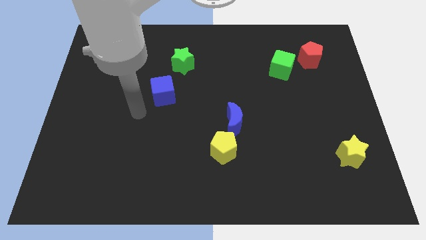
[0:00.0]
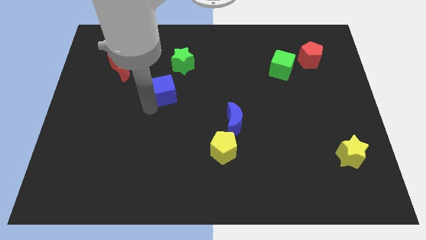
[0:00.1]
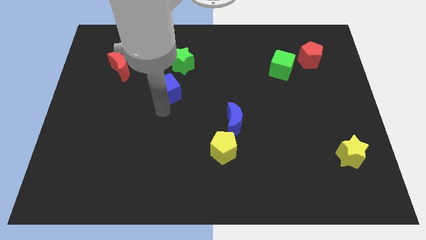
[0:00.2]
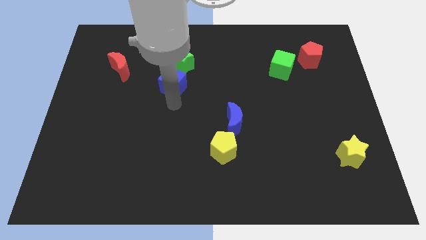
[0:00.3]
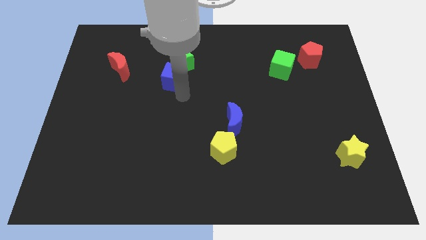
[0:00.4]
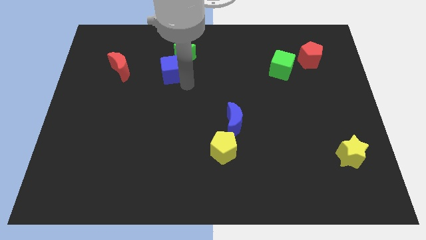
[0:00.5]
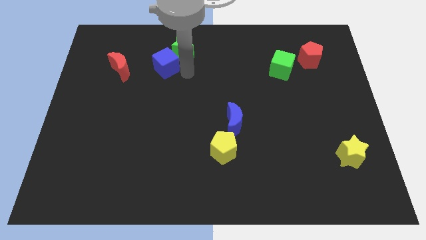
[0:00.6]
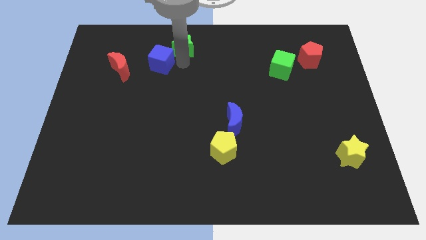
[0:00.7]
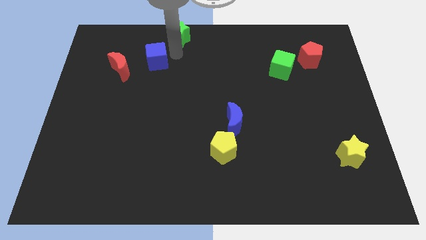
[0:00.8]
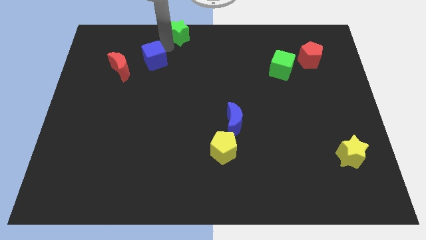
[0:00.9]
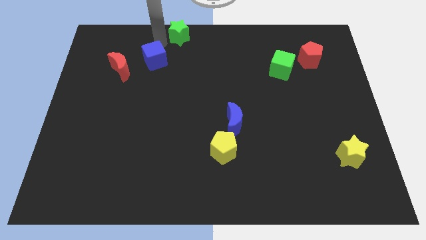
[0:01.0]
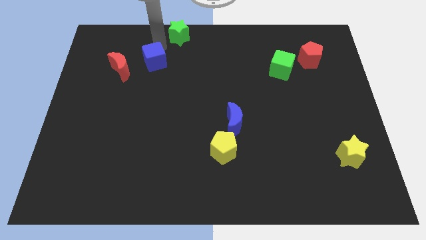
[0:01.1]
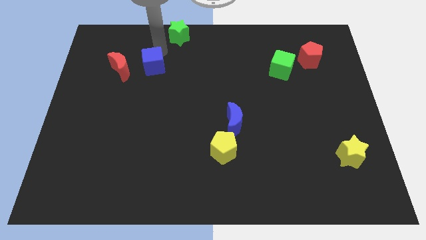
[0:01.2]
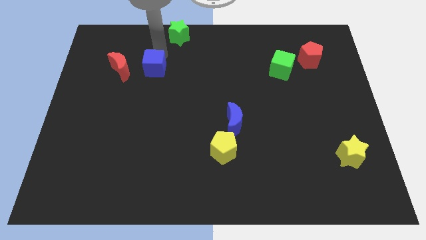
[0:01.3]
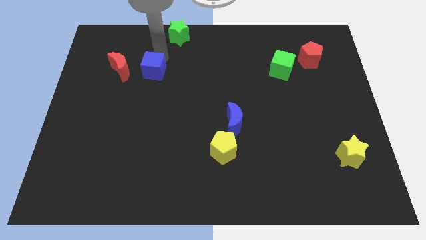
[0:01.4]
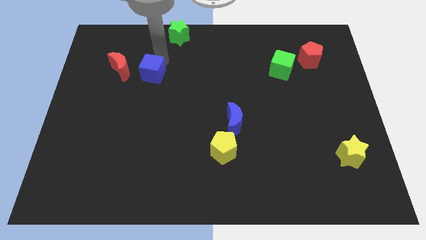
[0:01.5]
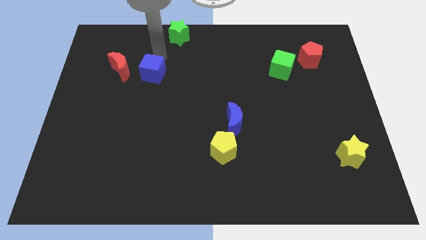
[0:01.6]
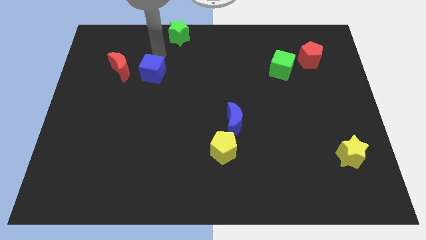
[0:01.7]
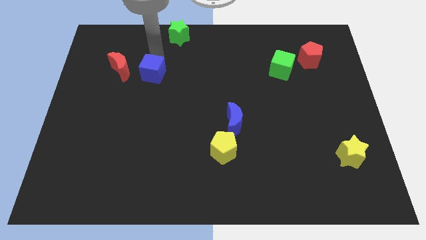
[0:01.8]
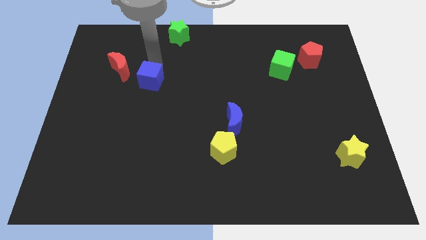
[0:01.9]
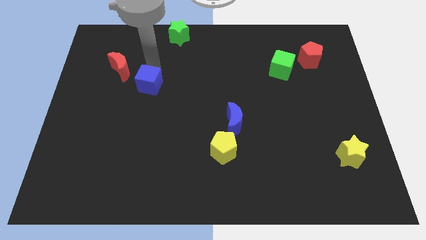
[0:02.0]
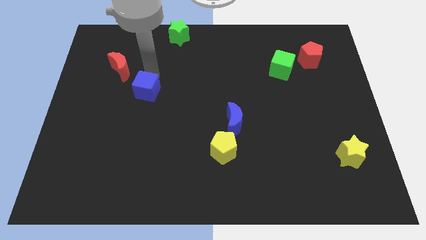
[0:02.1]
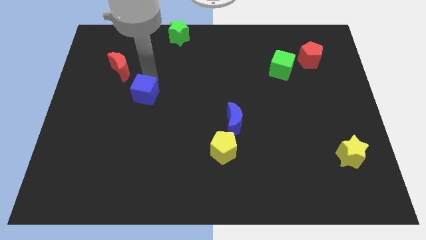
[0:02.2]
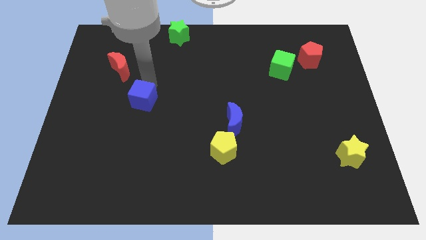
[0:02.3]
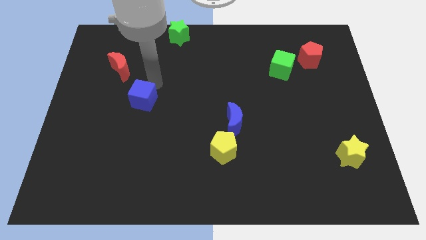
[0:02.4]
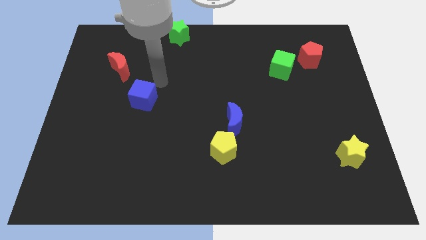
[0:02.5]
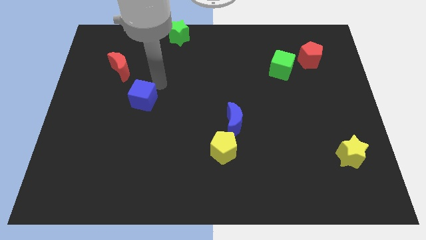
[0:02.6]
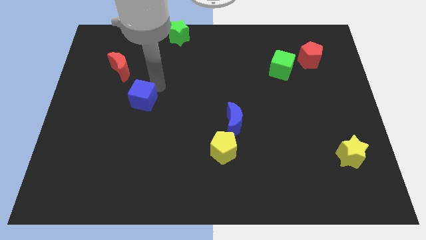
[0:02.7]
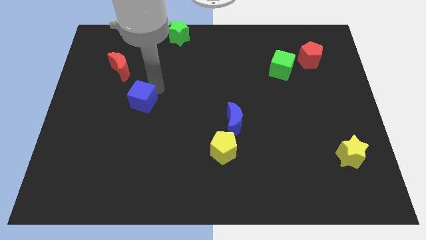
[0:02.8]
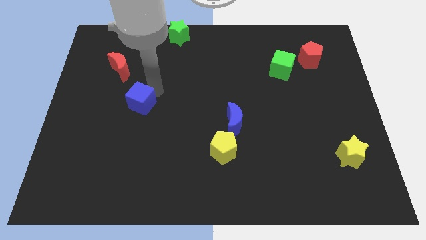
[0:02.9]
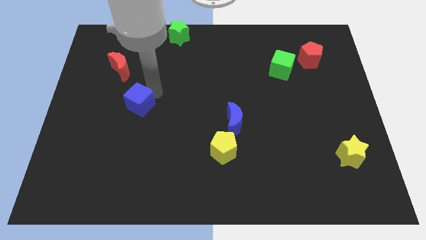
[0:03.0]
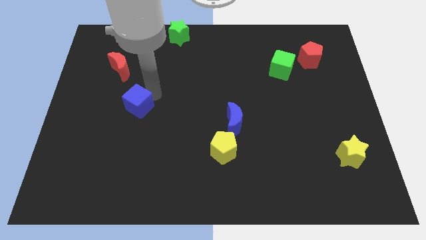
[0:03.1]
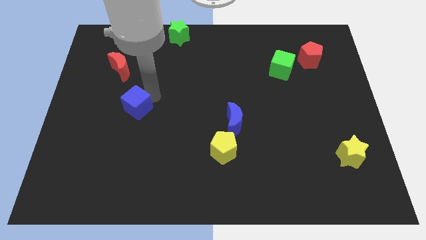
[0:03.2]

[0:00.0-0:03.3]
slightly move the blue cube downwards and left diagonally

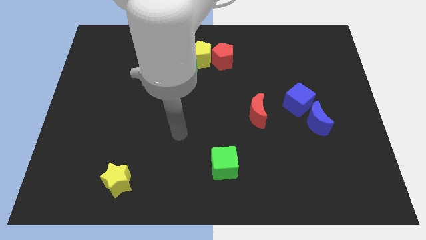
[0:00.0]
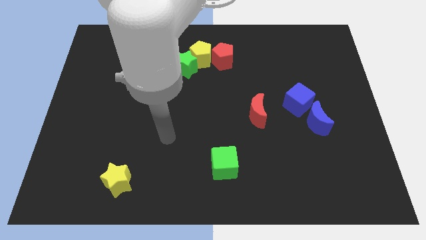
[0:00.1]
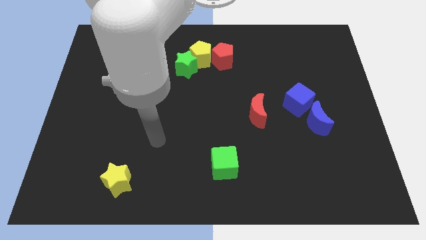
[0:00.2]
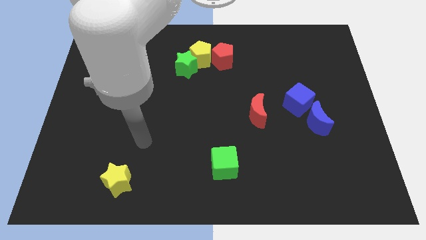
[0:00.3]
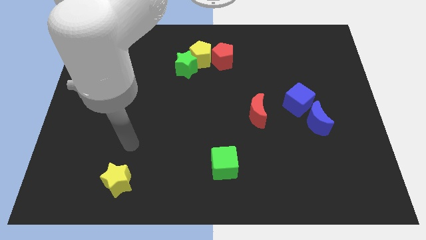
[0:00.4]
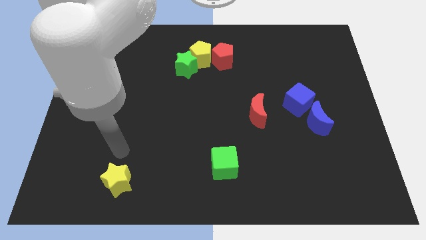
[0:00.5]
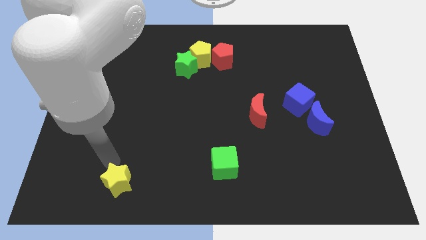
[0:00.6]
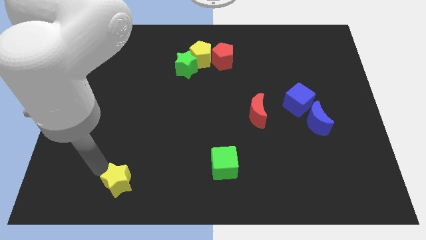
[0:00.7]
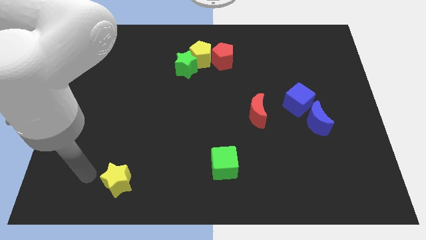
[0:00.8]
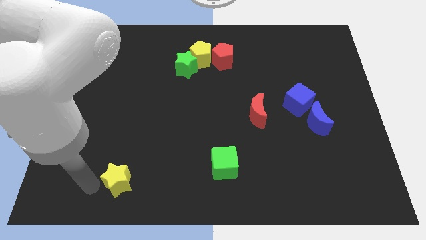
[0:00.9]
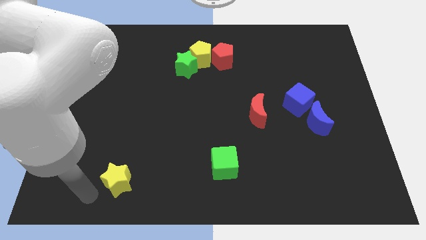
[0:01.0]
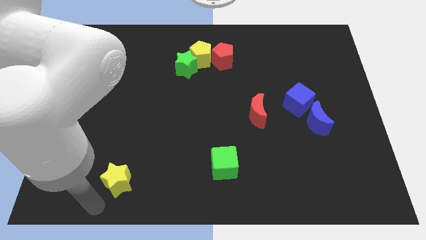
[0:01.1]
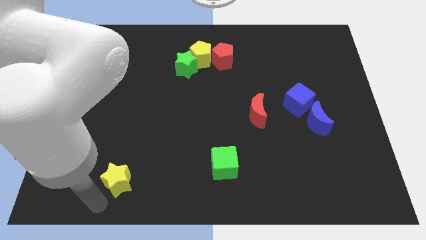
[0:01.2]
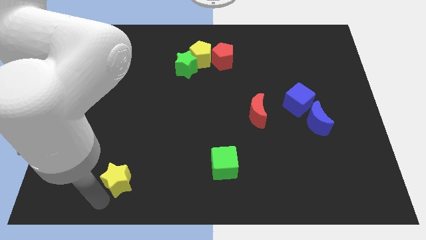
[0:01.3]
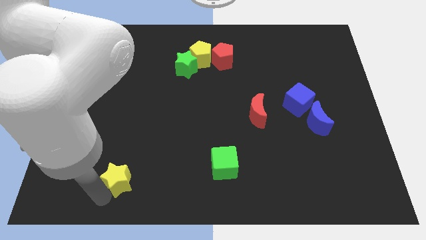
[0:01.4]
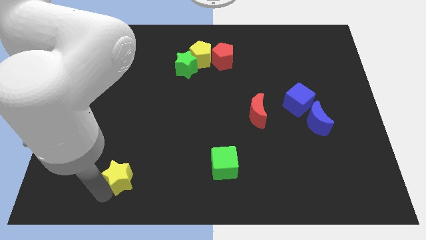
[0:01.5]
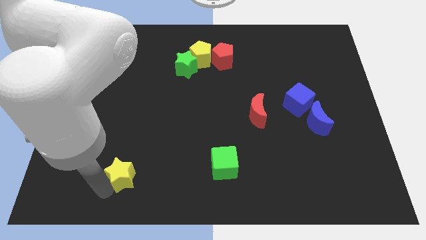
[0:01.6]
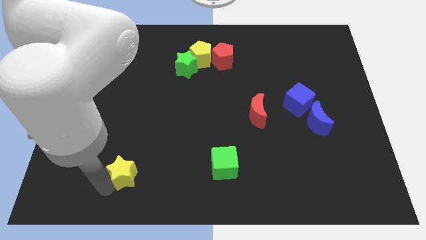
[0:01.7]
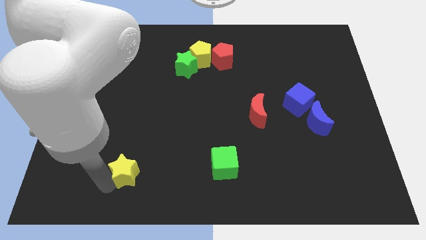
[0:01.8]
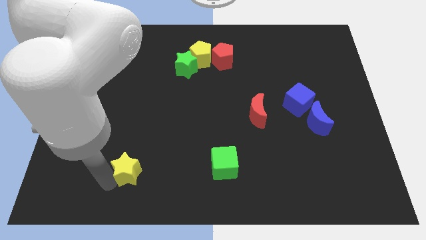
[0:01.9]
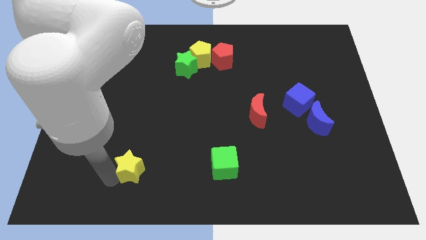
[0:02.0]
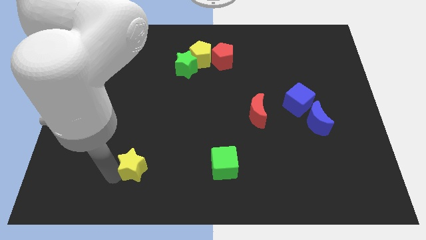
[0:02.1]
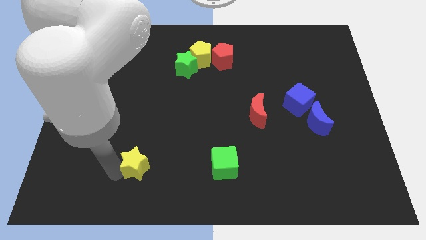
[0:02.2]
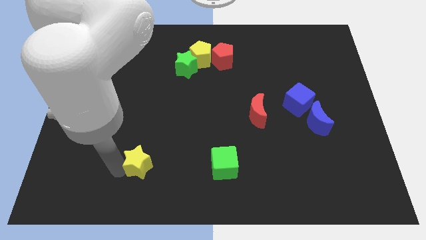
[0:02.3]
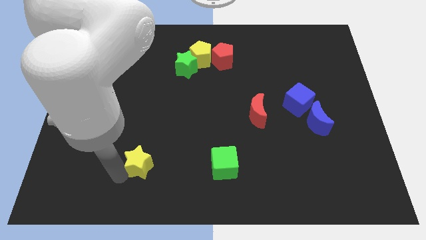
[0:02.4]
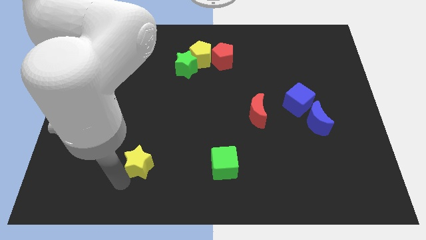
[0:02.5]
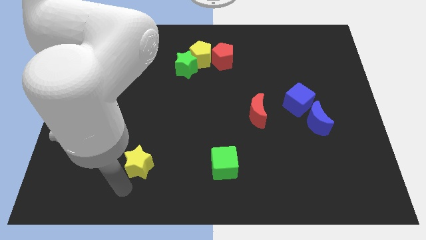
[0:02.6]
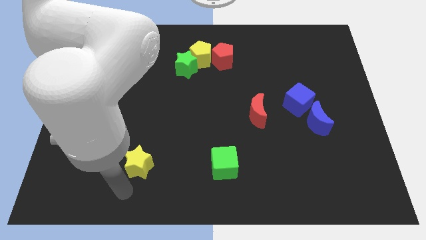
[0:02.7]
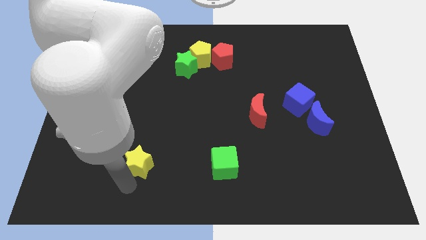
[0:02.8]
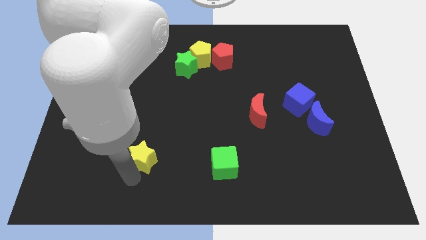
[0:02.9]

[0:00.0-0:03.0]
push the yellow star slightly upwards and right diagonally

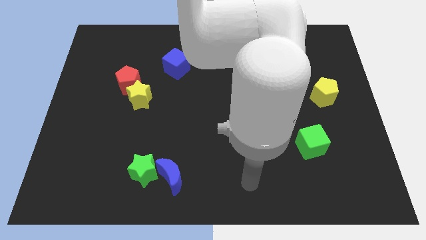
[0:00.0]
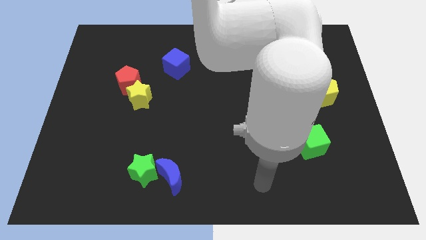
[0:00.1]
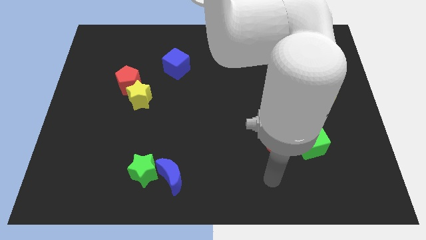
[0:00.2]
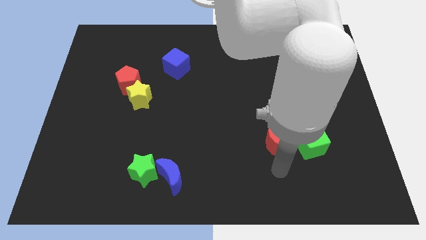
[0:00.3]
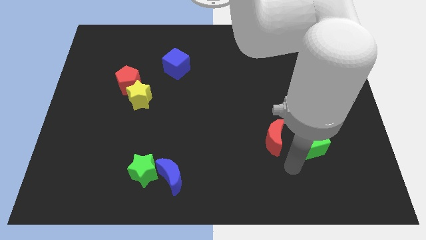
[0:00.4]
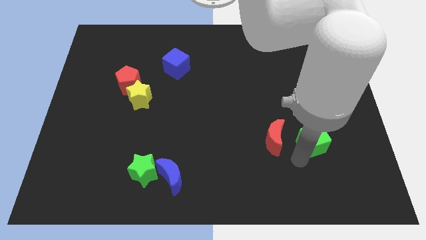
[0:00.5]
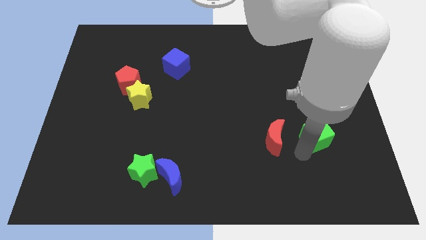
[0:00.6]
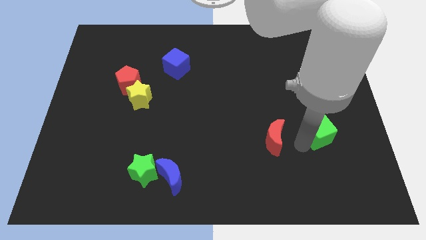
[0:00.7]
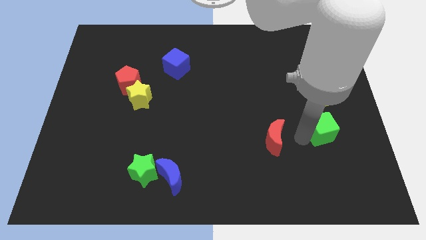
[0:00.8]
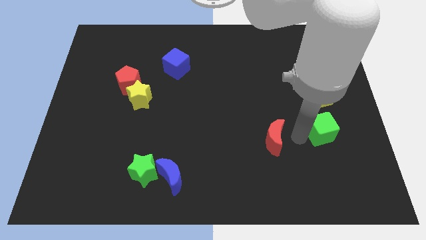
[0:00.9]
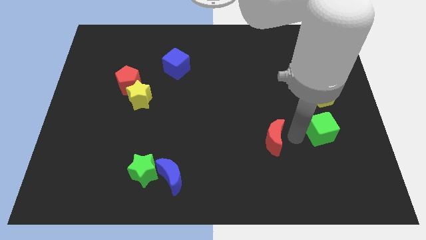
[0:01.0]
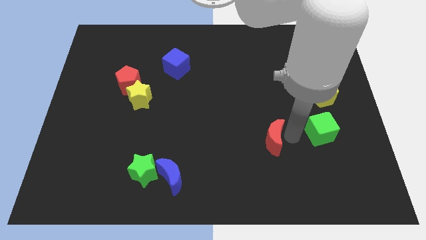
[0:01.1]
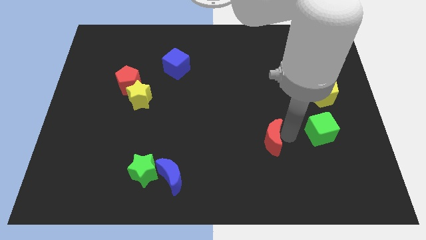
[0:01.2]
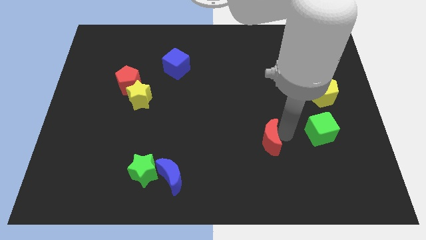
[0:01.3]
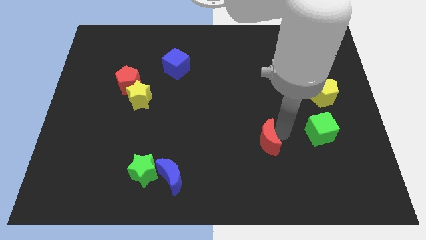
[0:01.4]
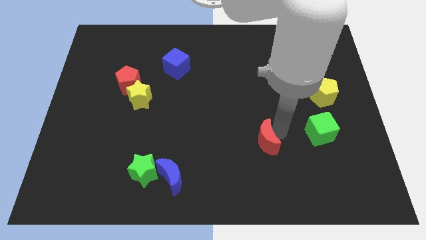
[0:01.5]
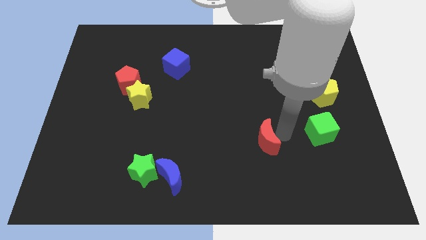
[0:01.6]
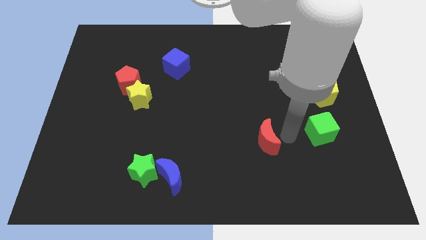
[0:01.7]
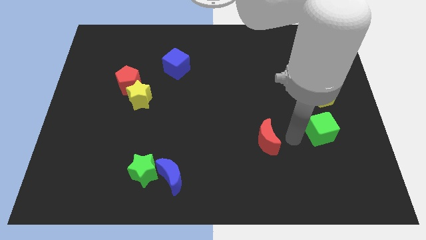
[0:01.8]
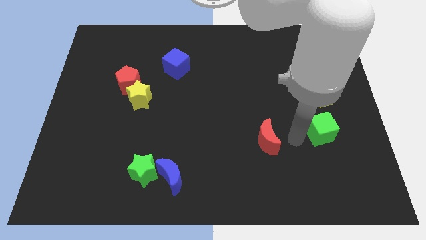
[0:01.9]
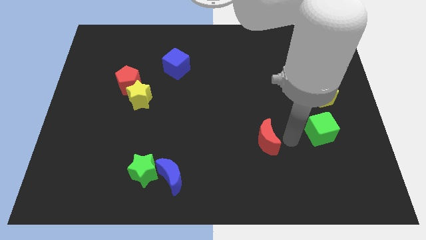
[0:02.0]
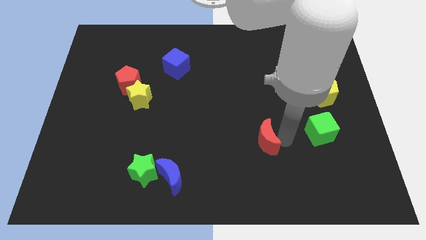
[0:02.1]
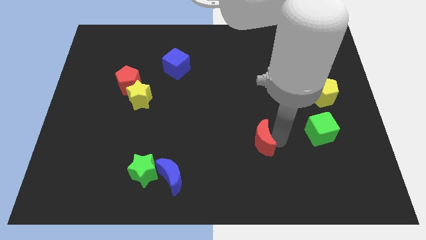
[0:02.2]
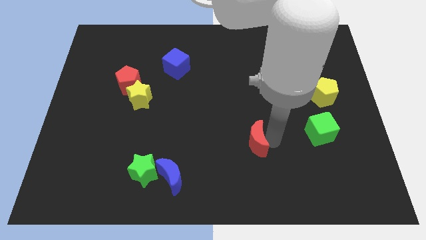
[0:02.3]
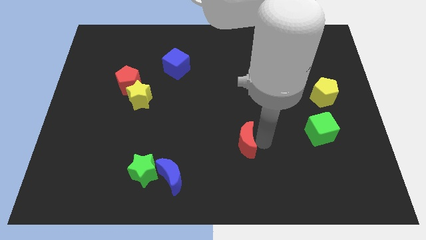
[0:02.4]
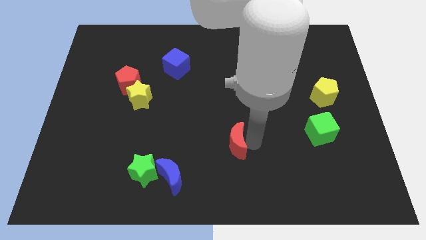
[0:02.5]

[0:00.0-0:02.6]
slightly push the red moon to the left
